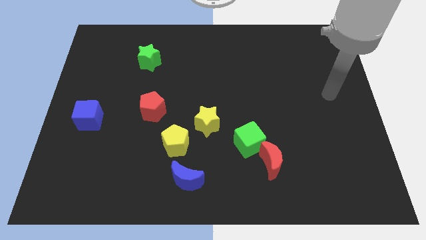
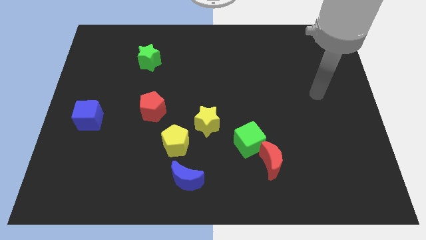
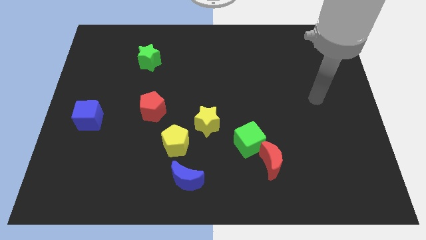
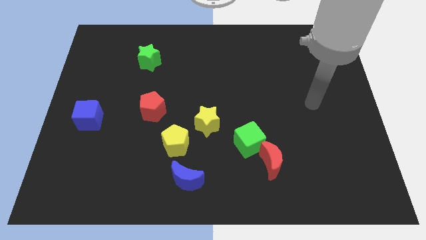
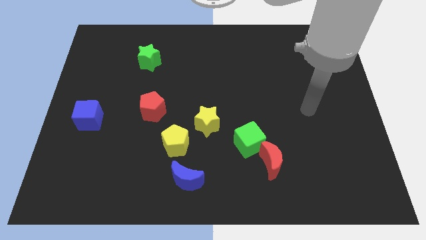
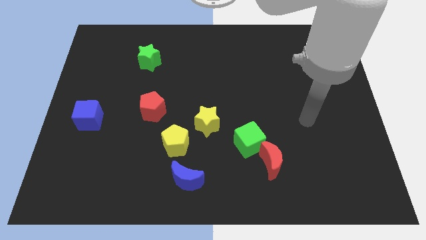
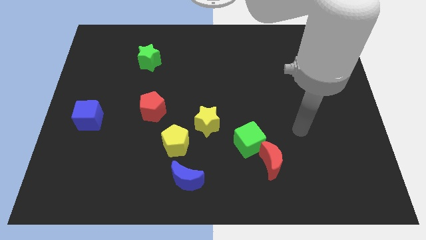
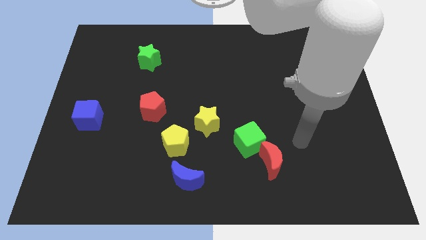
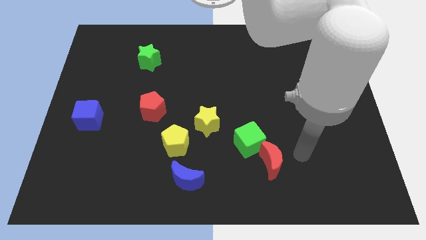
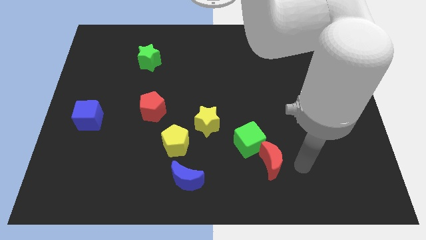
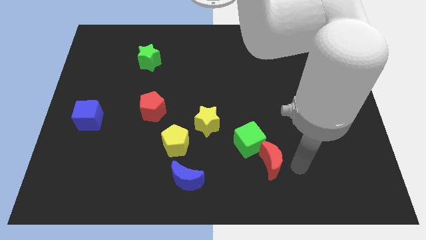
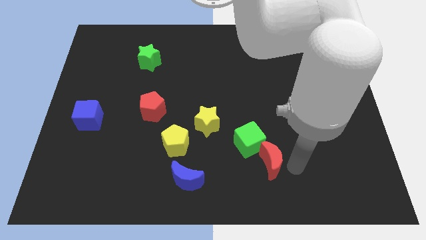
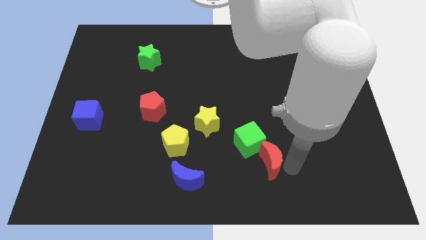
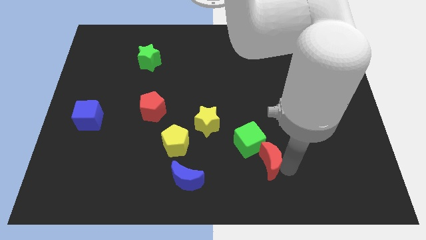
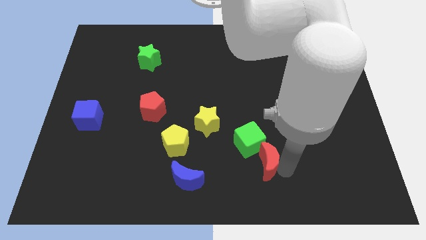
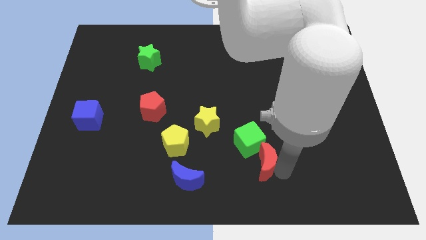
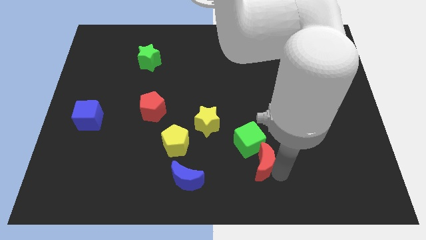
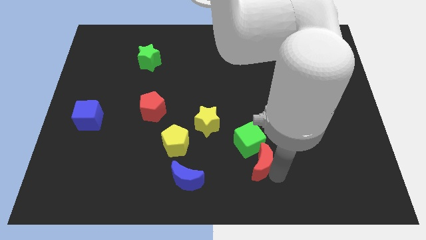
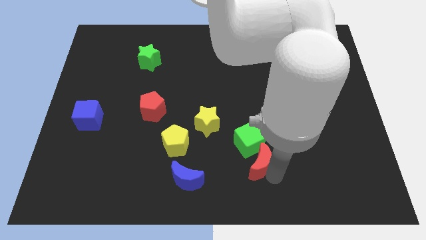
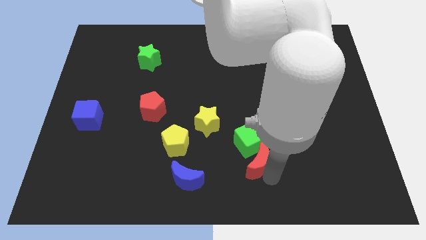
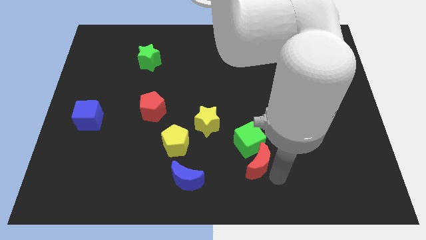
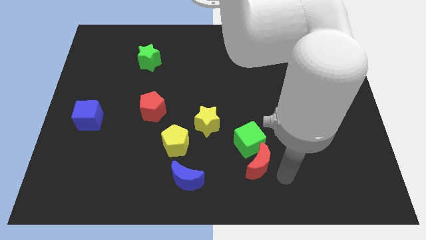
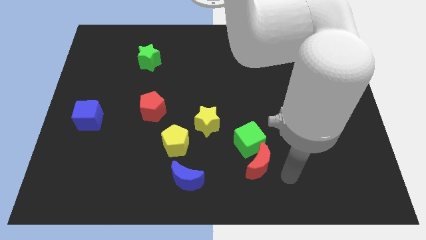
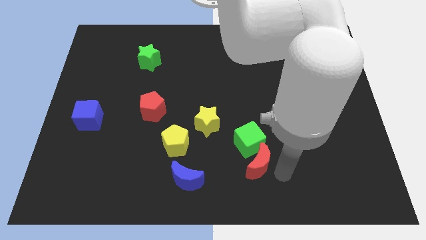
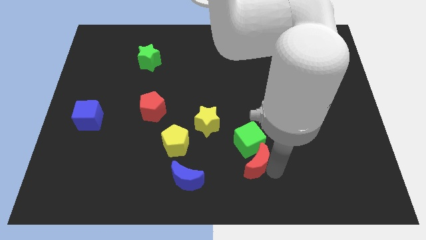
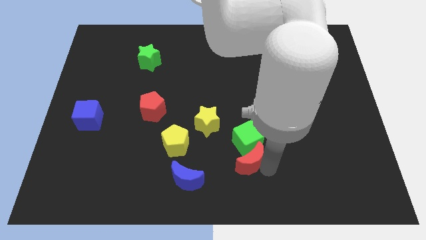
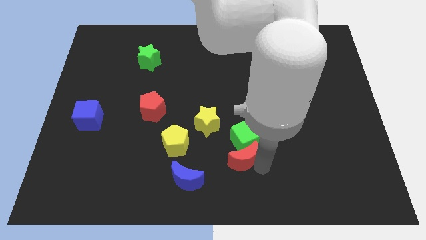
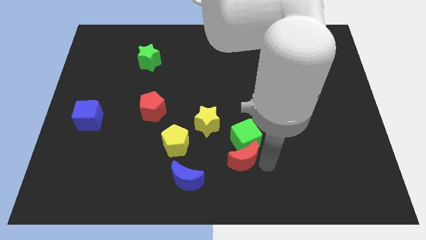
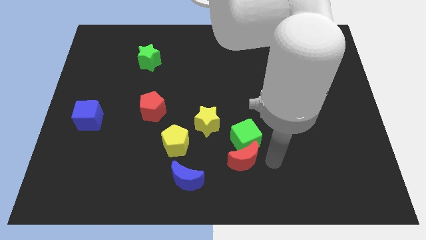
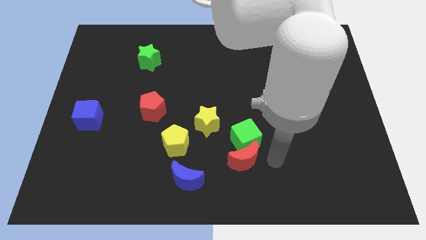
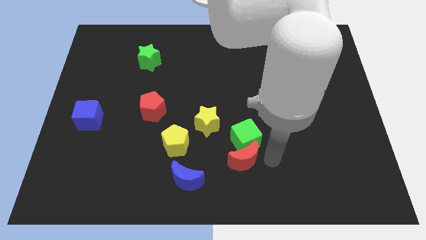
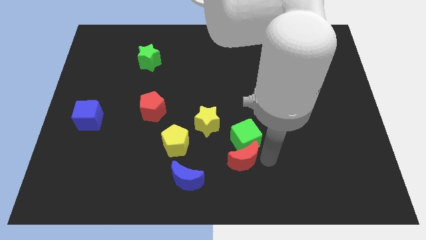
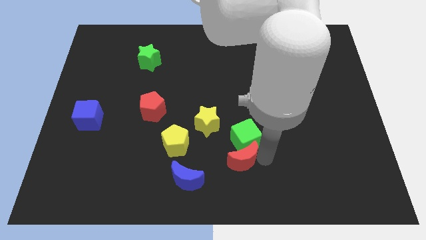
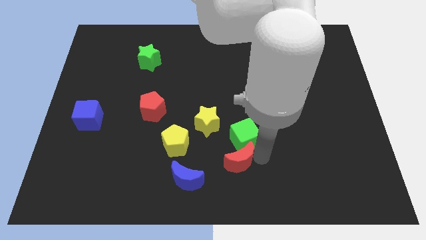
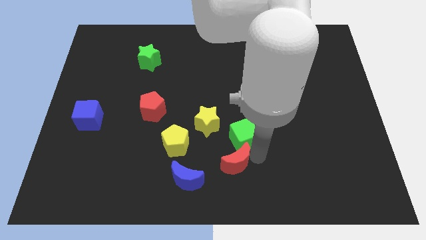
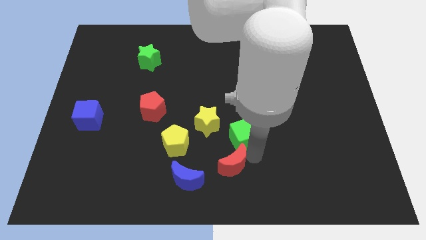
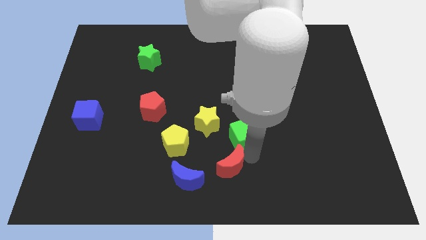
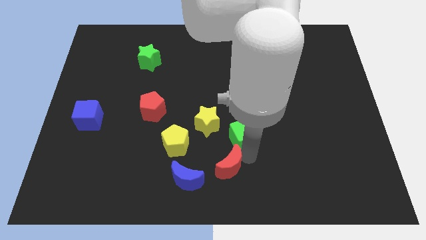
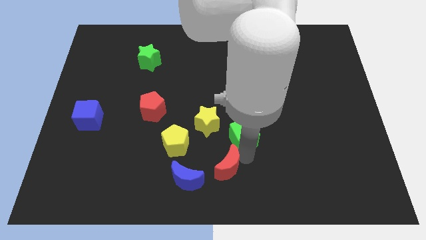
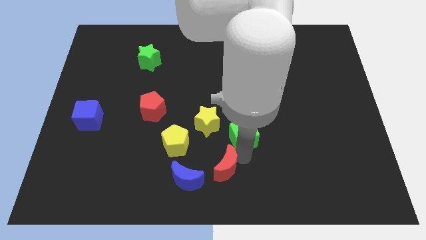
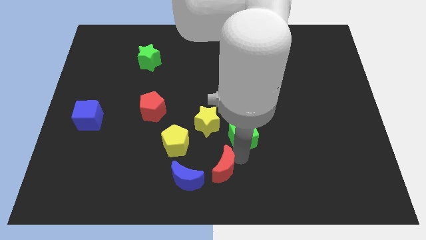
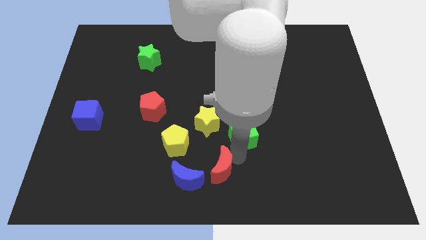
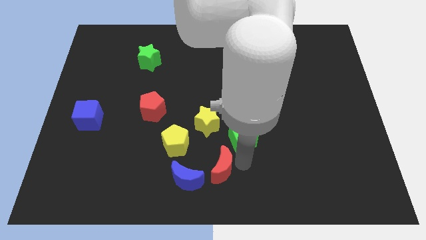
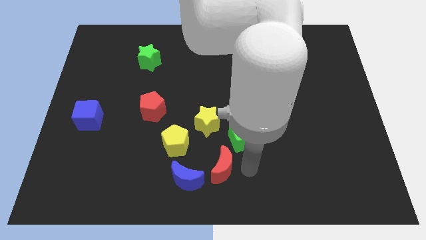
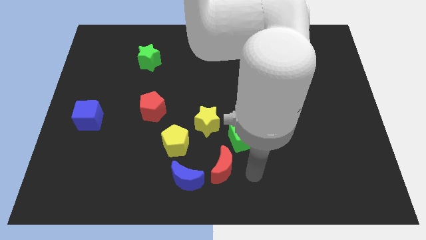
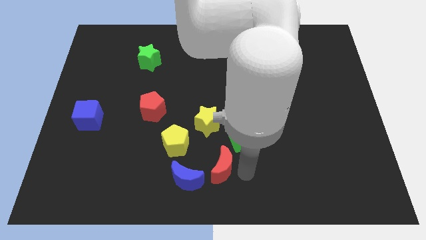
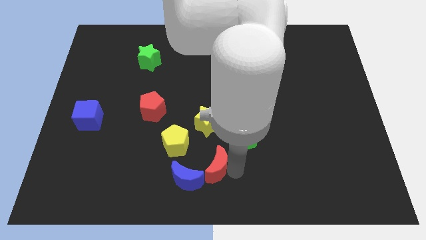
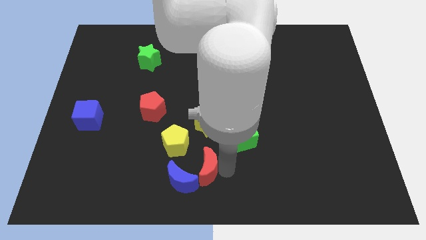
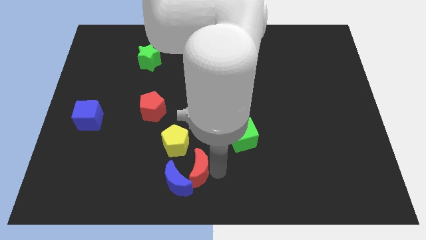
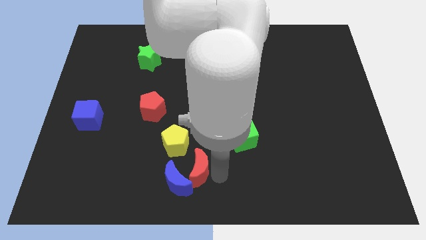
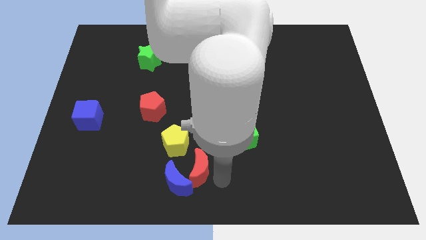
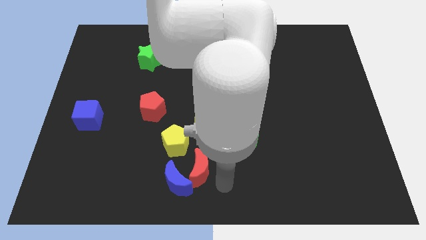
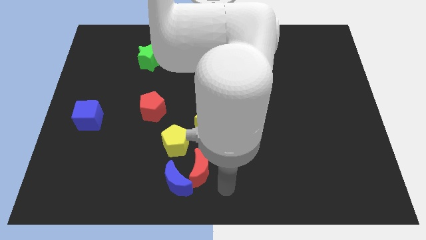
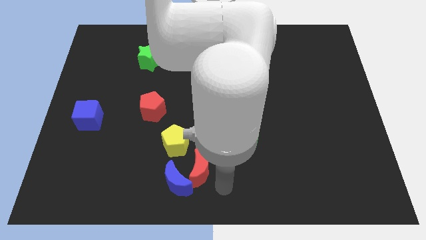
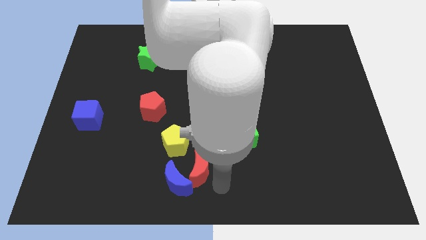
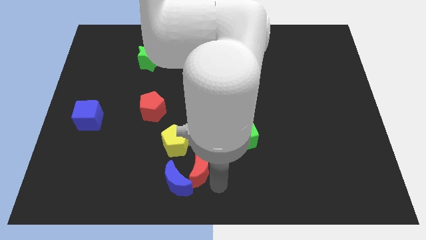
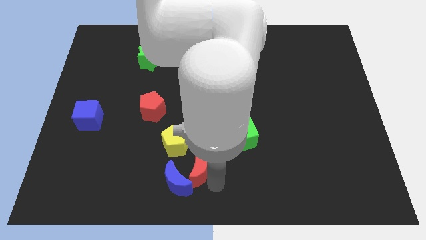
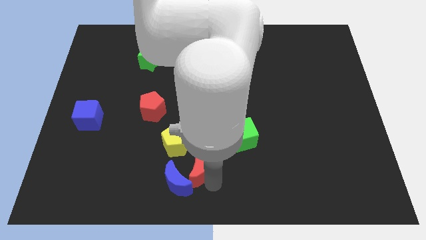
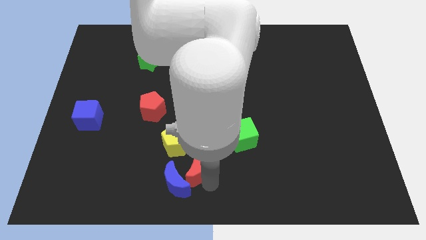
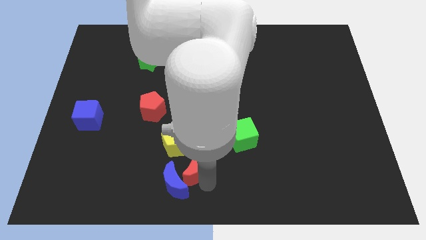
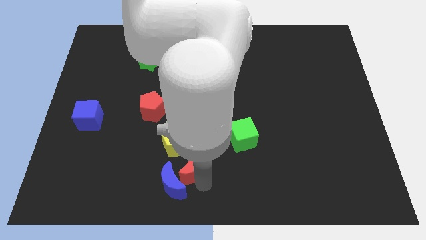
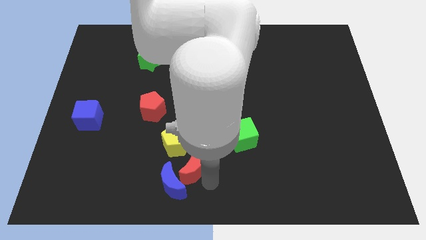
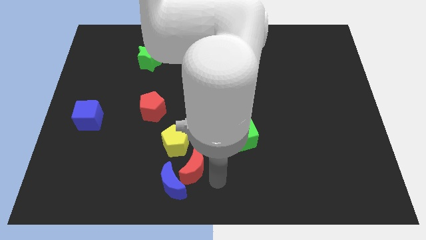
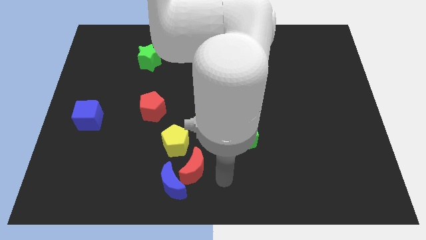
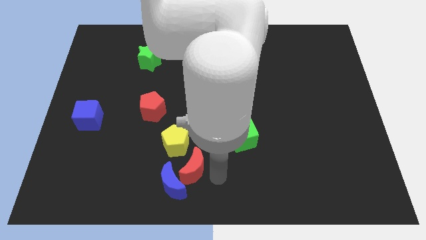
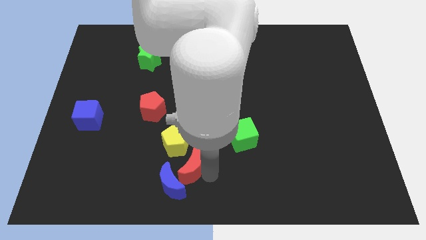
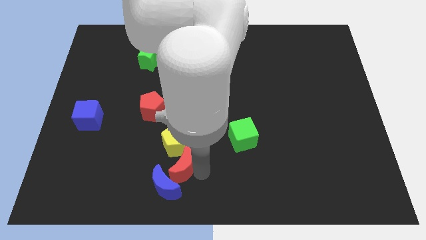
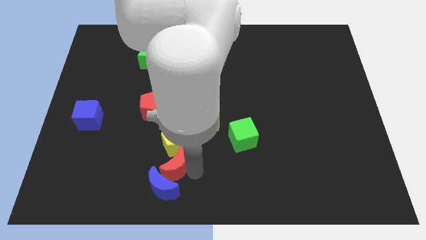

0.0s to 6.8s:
slide the red moon to the left

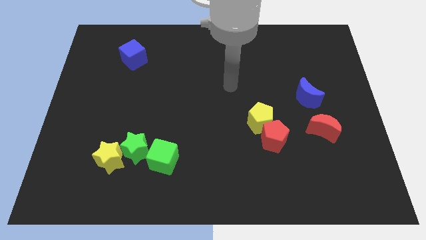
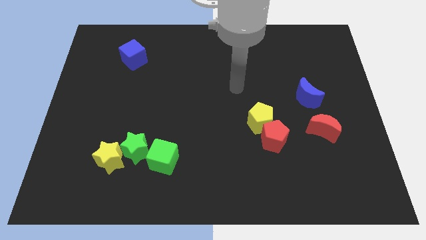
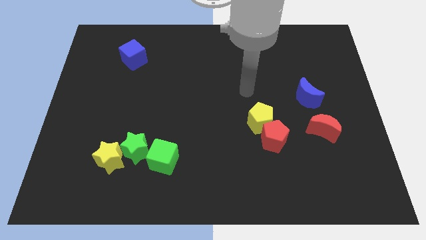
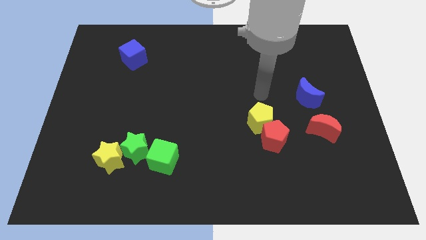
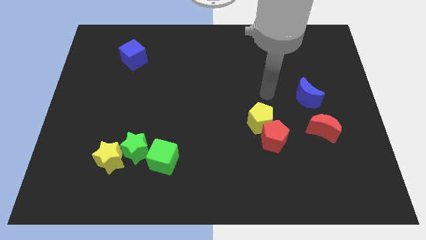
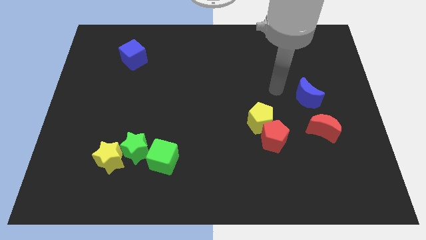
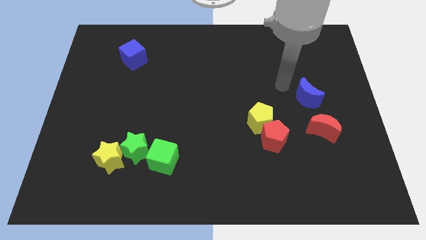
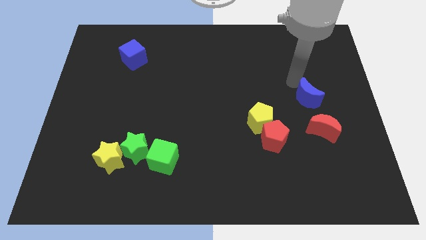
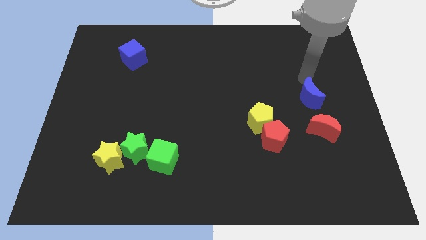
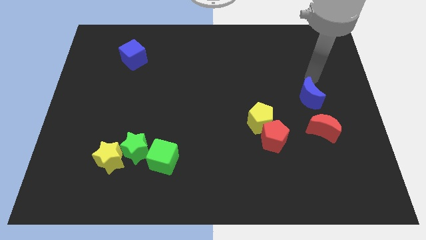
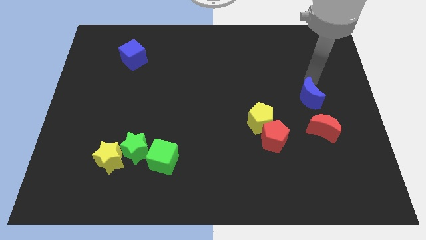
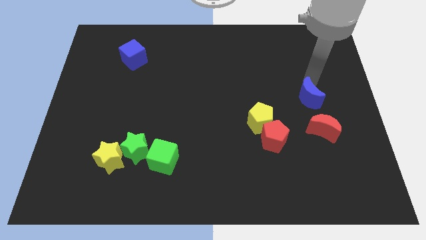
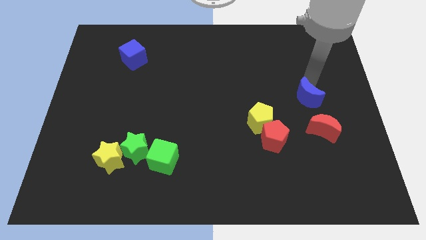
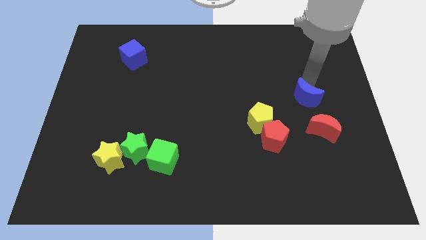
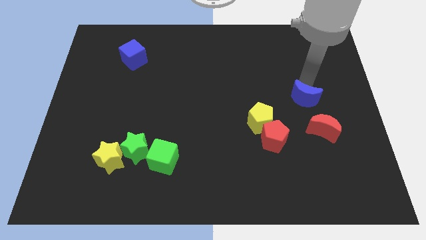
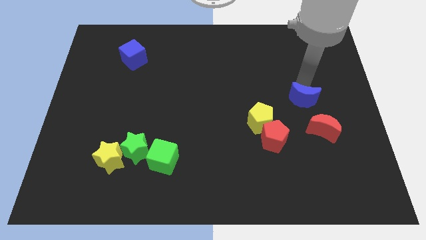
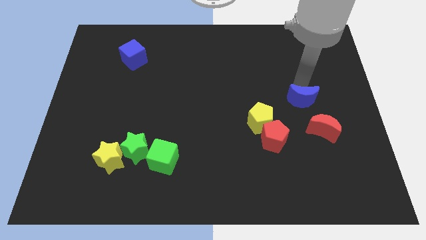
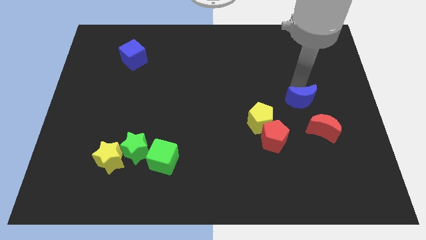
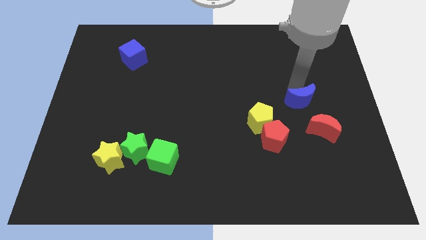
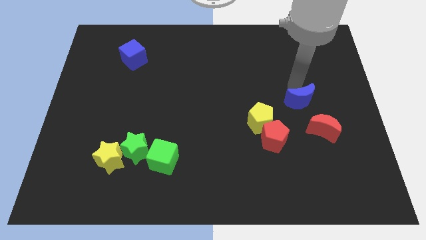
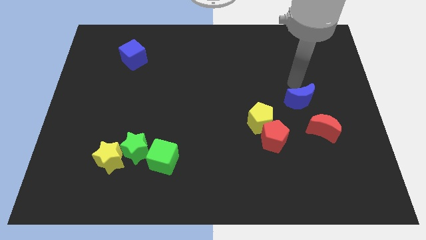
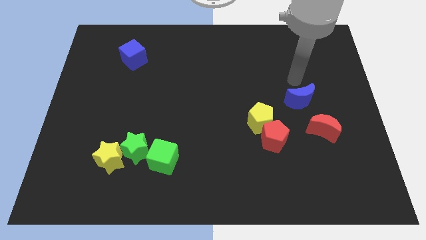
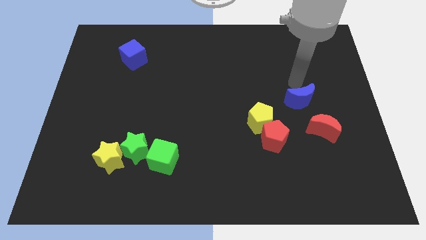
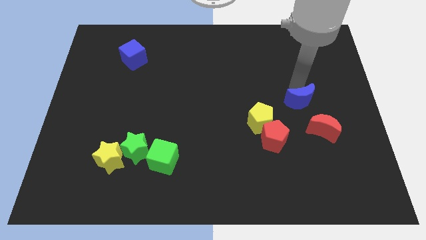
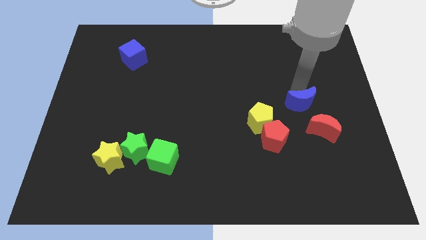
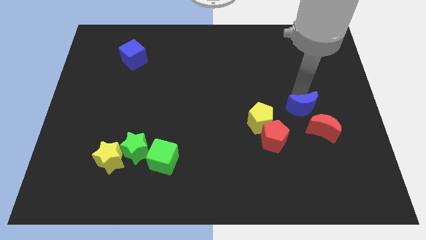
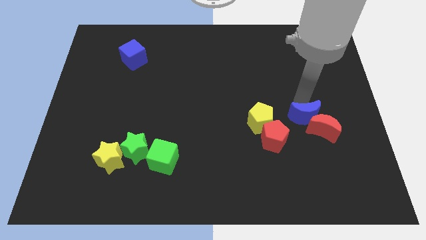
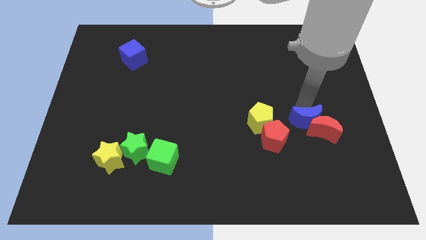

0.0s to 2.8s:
push the blue moon slightly downwards
